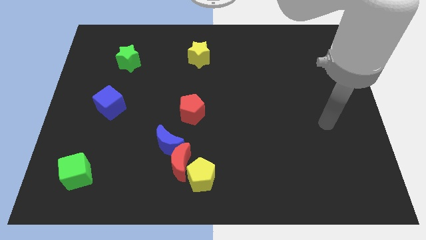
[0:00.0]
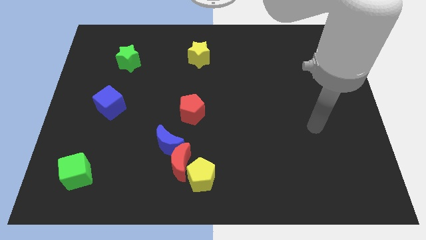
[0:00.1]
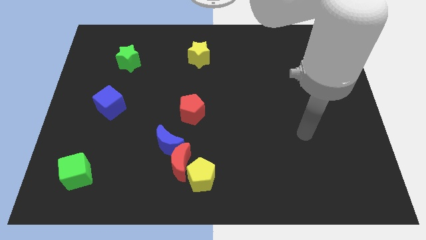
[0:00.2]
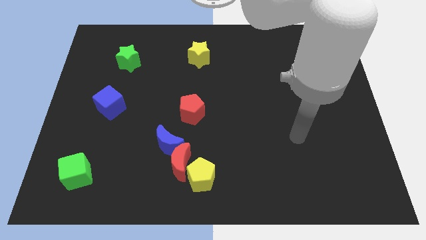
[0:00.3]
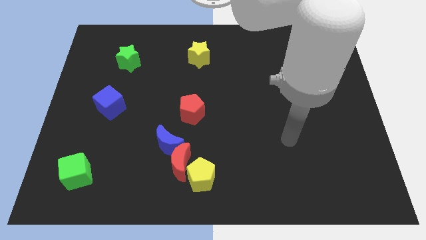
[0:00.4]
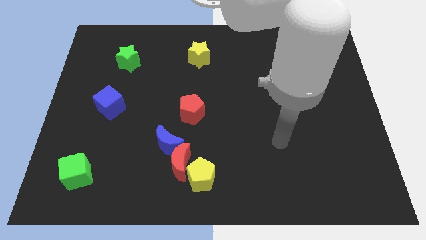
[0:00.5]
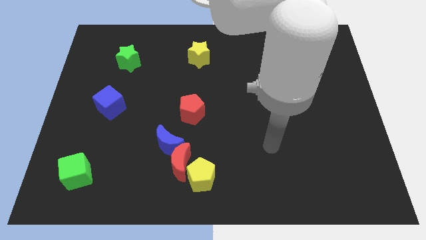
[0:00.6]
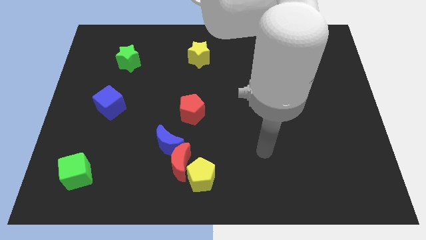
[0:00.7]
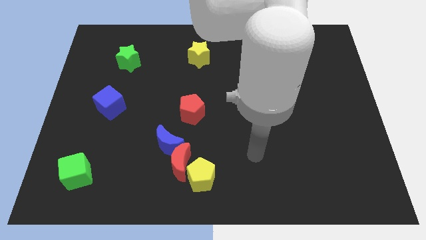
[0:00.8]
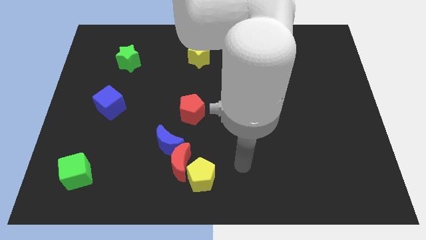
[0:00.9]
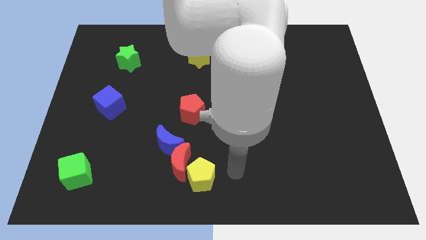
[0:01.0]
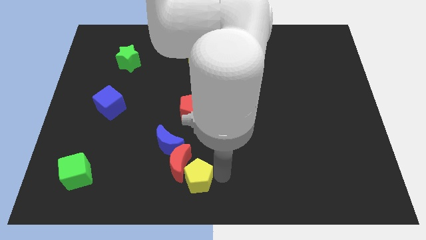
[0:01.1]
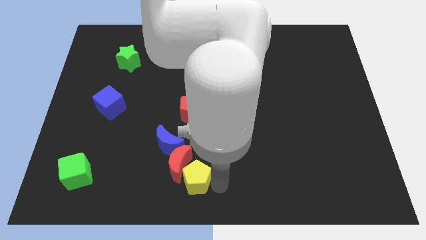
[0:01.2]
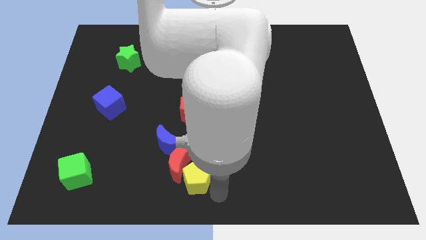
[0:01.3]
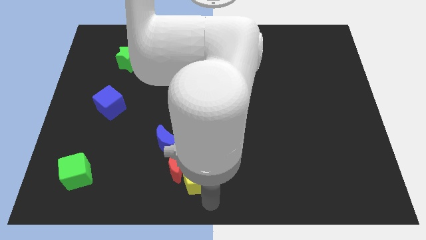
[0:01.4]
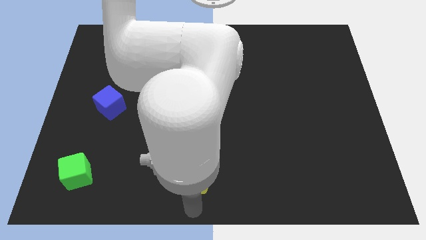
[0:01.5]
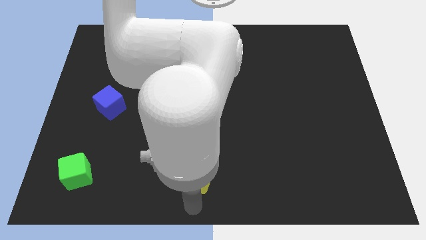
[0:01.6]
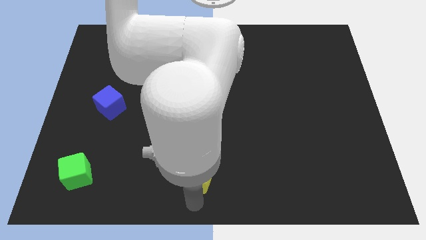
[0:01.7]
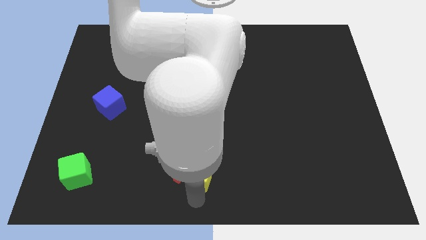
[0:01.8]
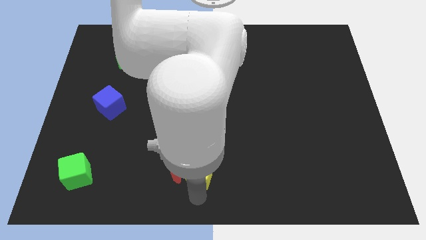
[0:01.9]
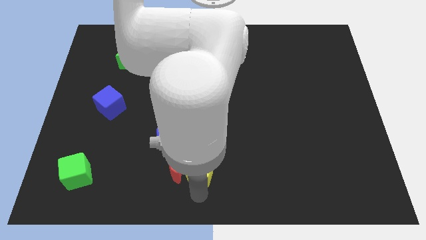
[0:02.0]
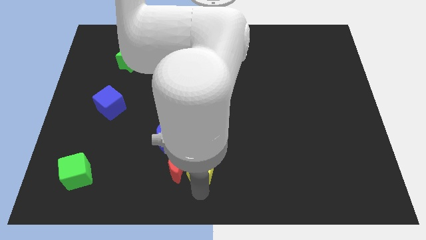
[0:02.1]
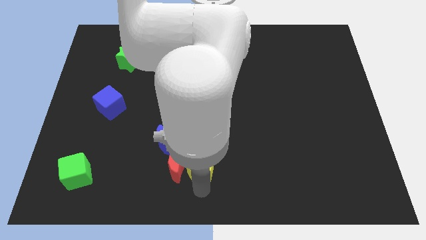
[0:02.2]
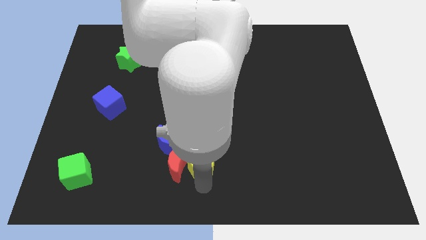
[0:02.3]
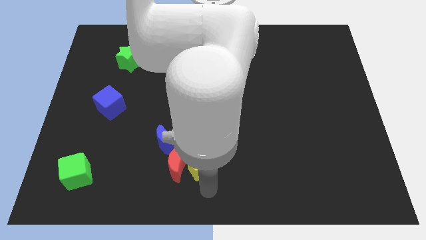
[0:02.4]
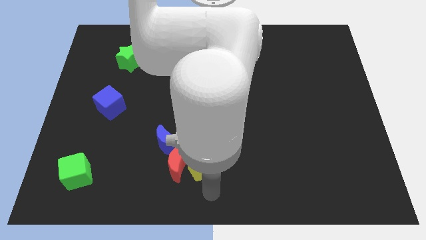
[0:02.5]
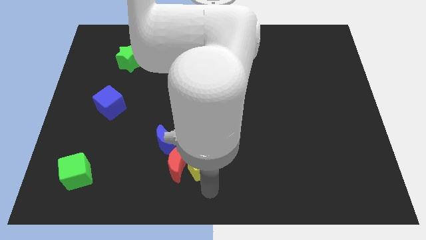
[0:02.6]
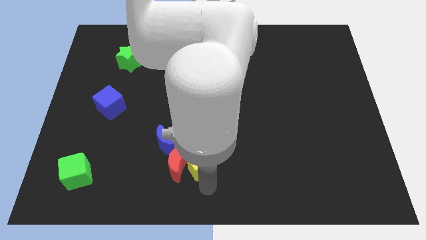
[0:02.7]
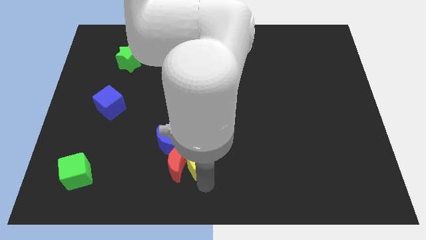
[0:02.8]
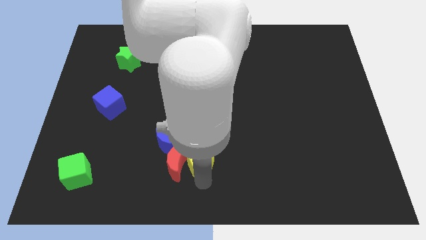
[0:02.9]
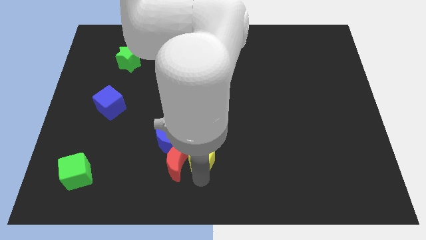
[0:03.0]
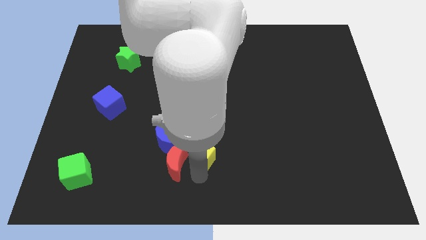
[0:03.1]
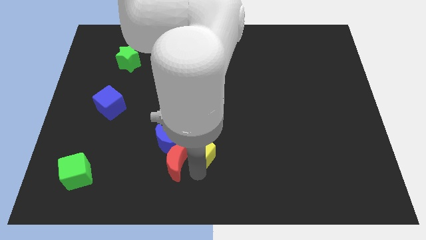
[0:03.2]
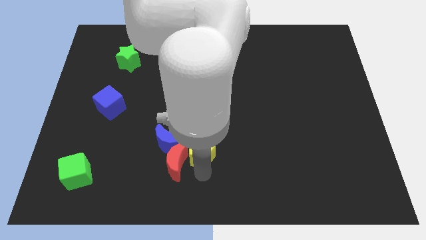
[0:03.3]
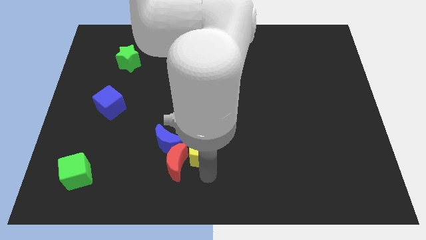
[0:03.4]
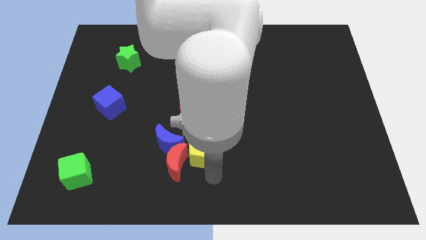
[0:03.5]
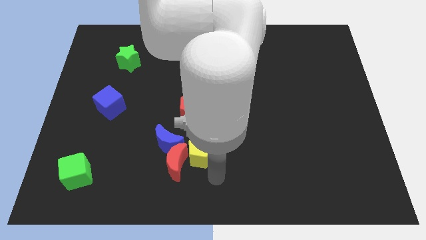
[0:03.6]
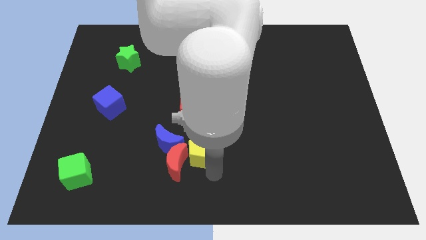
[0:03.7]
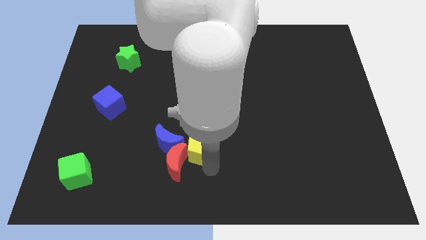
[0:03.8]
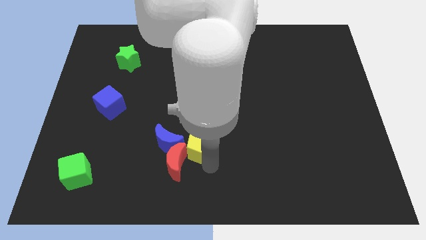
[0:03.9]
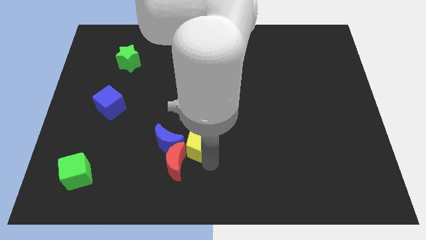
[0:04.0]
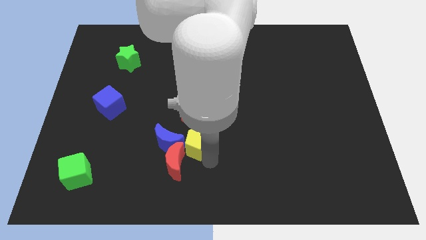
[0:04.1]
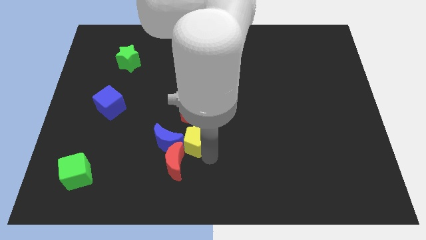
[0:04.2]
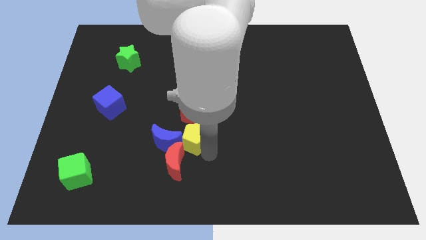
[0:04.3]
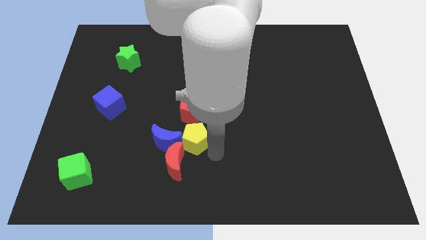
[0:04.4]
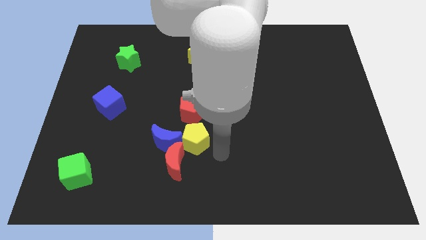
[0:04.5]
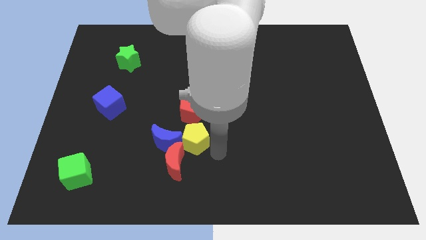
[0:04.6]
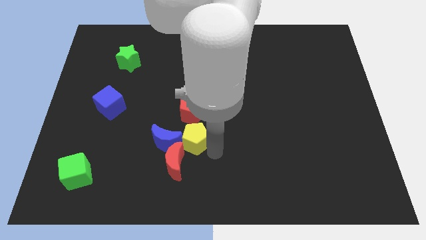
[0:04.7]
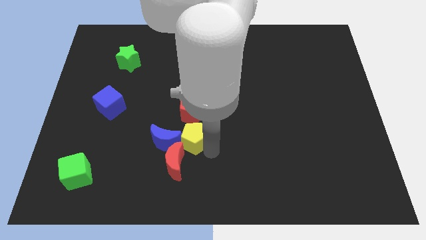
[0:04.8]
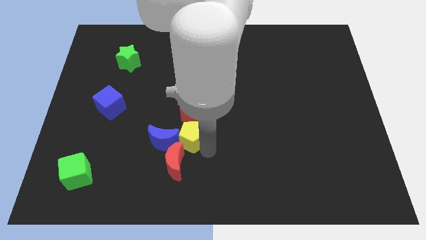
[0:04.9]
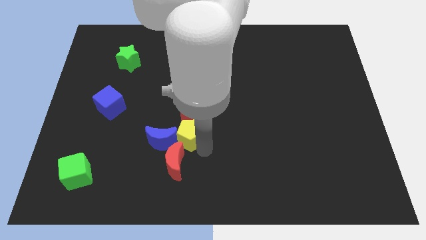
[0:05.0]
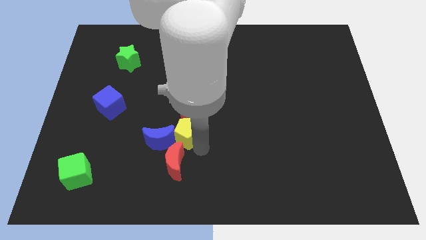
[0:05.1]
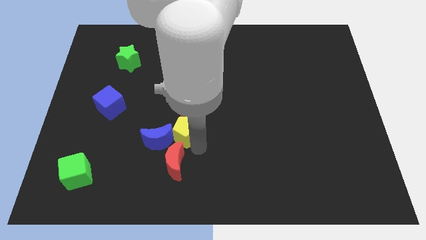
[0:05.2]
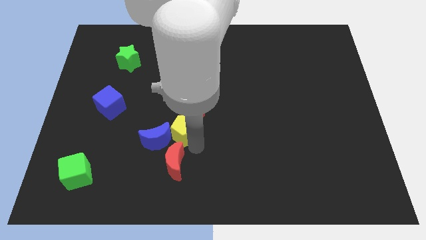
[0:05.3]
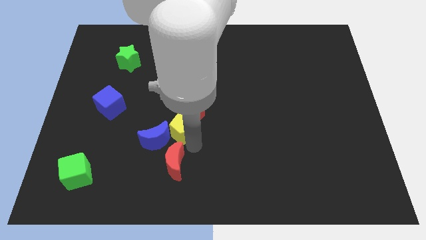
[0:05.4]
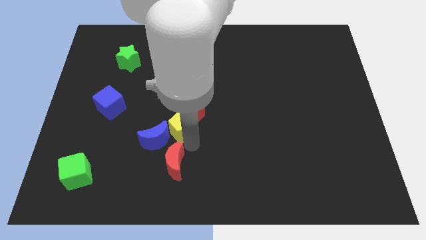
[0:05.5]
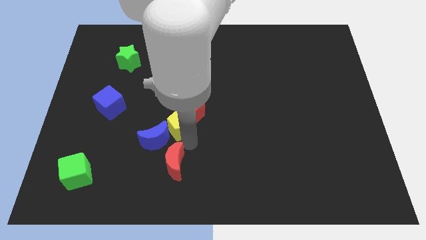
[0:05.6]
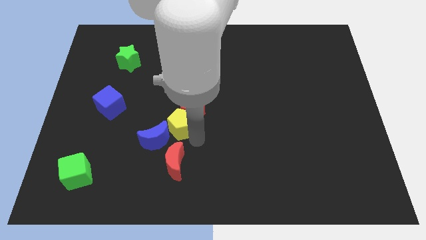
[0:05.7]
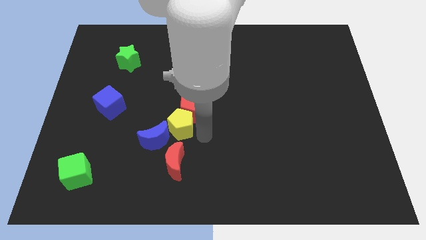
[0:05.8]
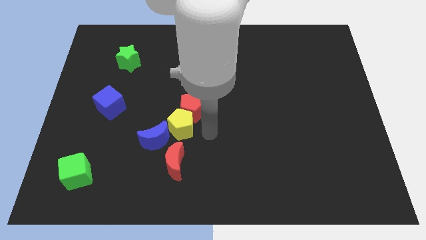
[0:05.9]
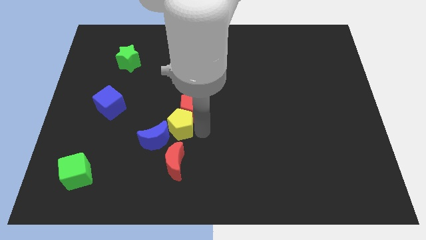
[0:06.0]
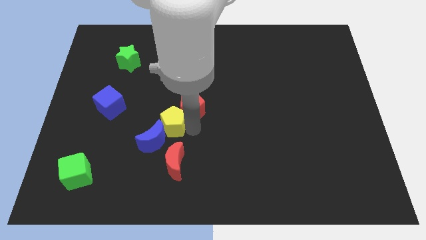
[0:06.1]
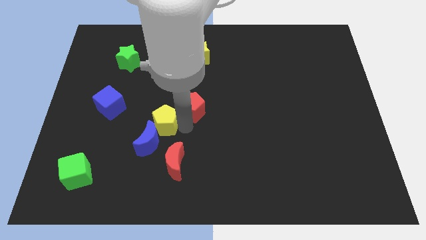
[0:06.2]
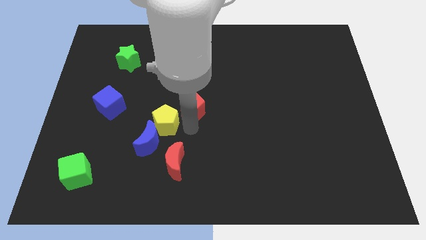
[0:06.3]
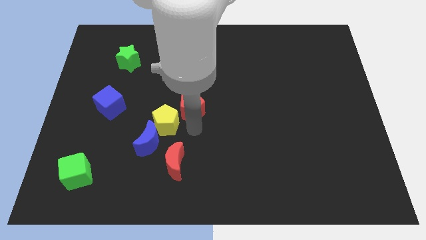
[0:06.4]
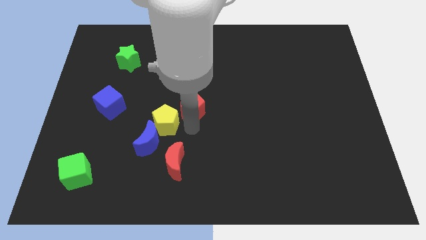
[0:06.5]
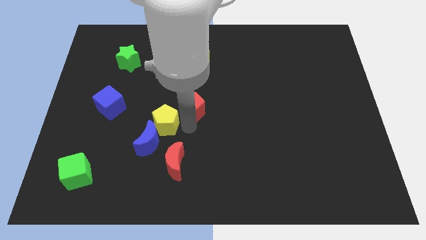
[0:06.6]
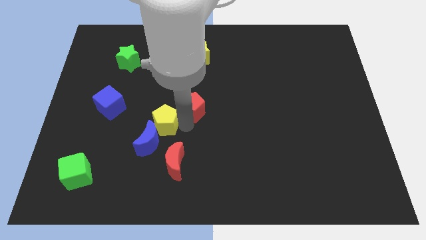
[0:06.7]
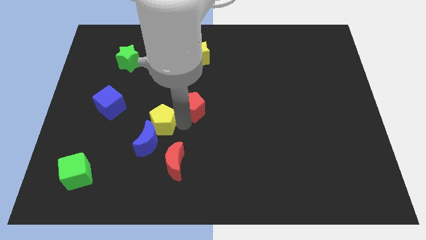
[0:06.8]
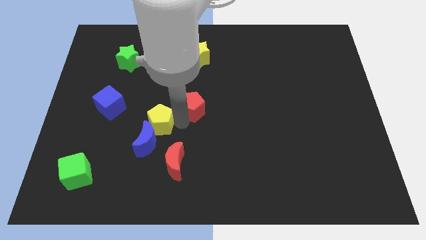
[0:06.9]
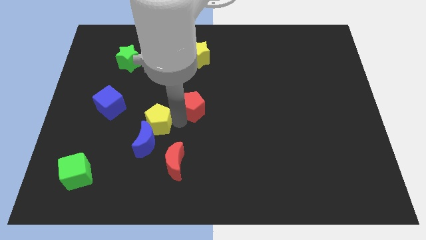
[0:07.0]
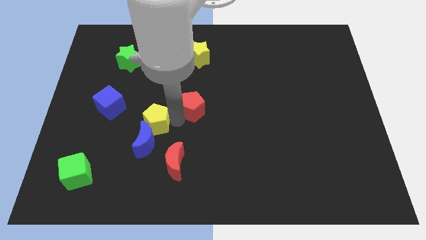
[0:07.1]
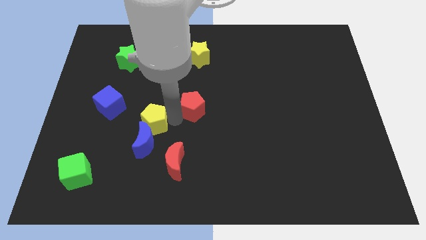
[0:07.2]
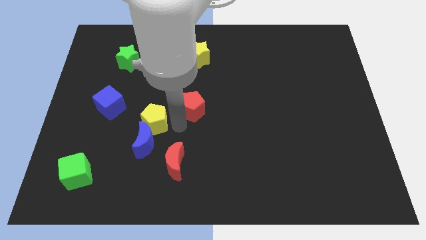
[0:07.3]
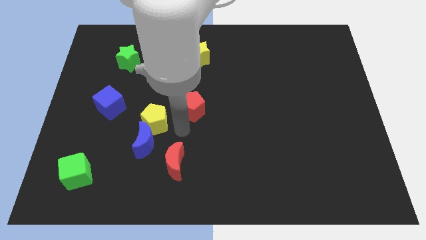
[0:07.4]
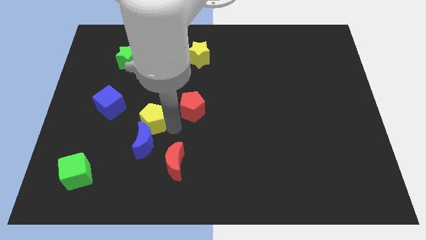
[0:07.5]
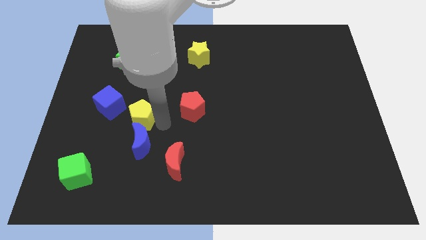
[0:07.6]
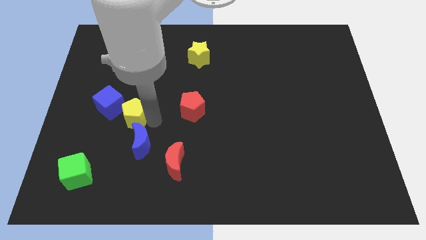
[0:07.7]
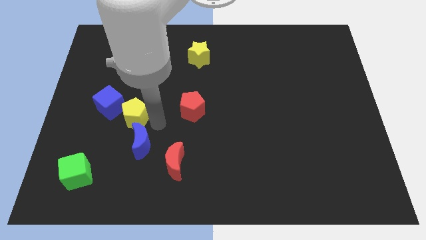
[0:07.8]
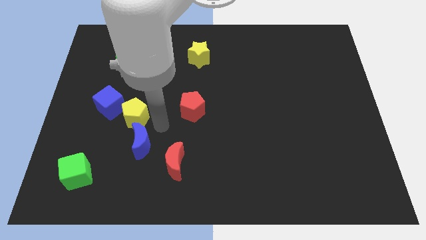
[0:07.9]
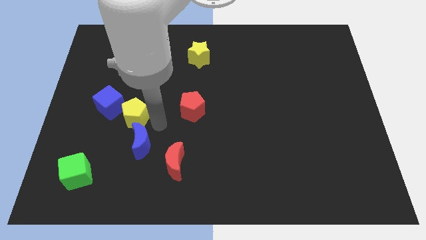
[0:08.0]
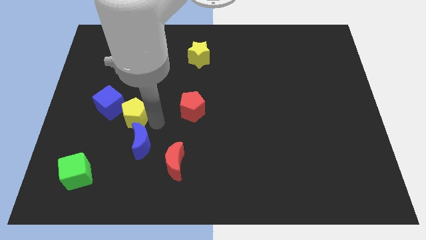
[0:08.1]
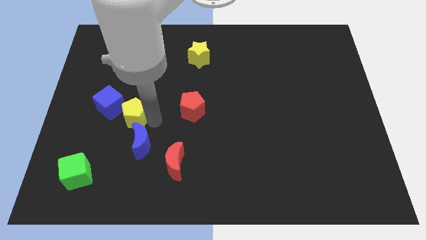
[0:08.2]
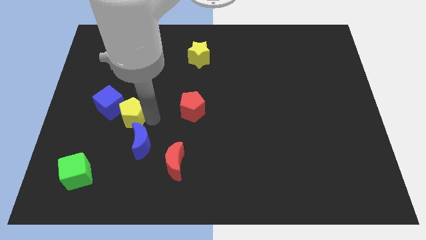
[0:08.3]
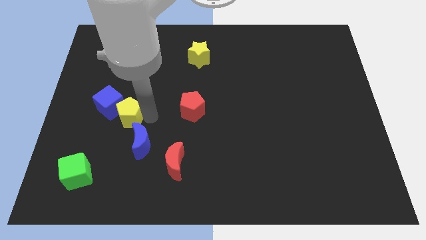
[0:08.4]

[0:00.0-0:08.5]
move the yellow pentagon next to the blue cube
